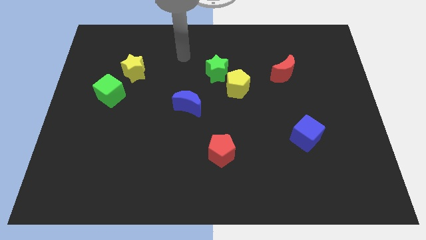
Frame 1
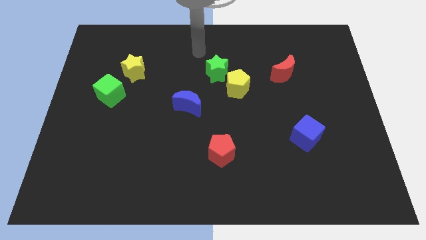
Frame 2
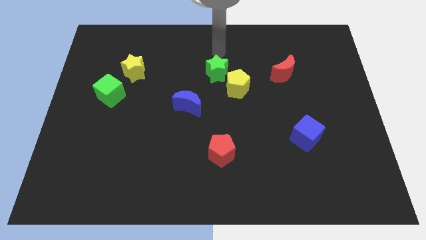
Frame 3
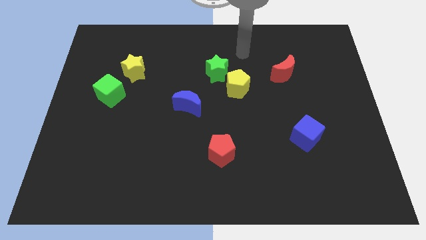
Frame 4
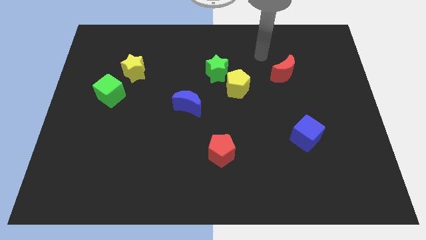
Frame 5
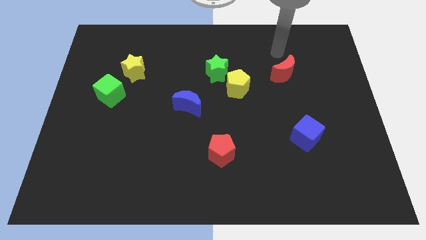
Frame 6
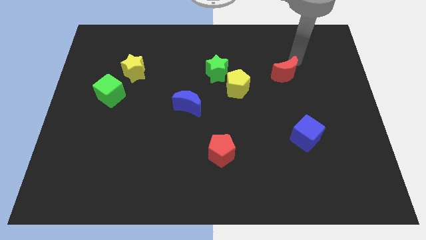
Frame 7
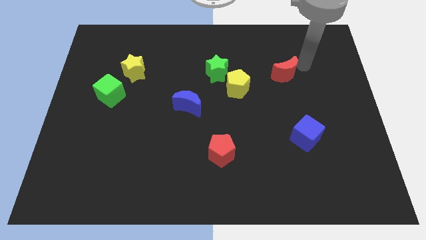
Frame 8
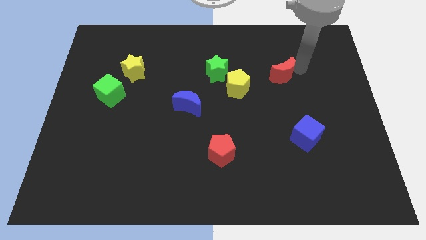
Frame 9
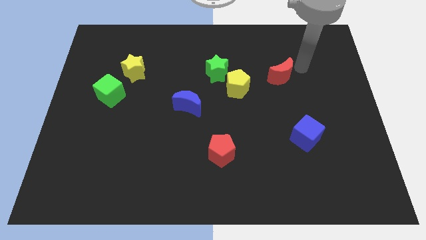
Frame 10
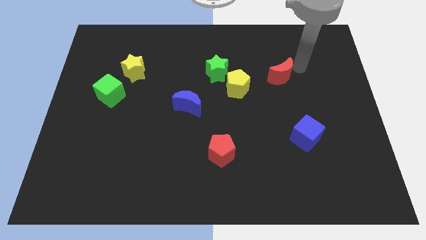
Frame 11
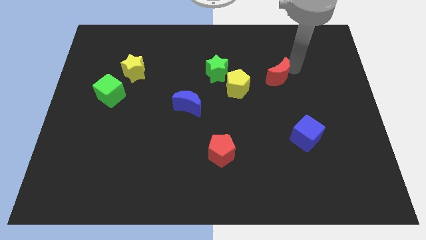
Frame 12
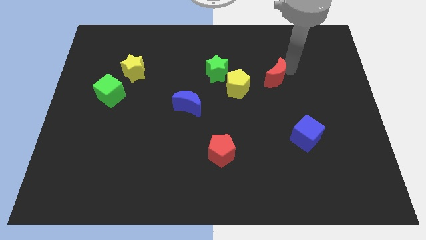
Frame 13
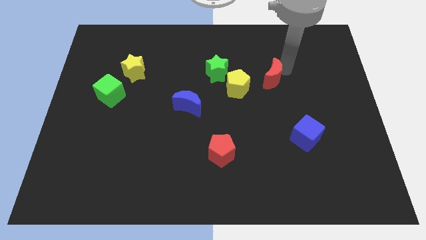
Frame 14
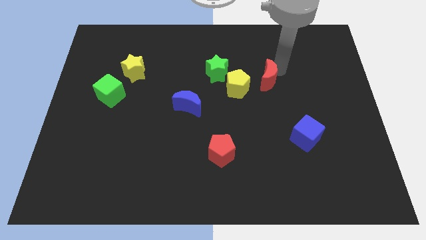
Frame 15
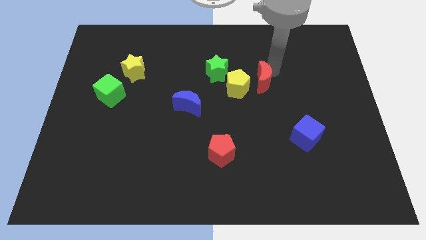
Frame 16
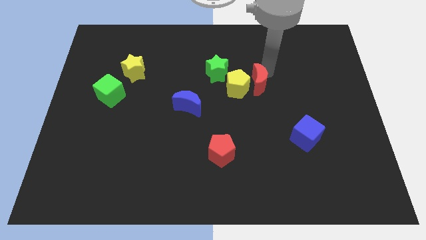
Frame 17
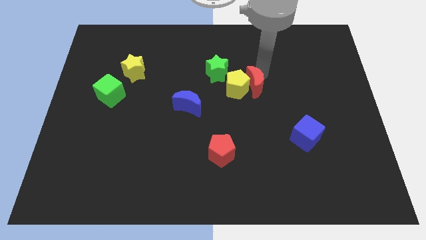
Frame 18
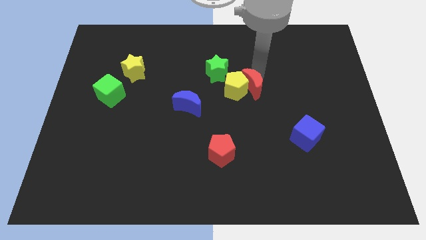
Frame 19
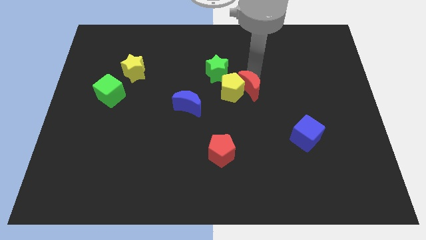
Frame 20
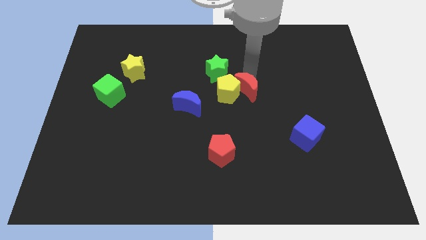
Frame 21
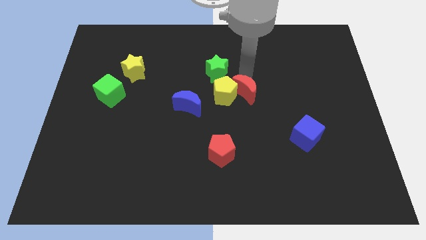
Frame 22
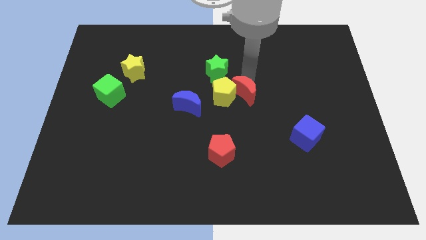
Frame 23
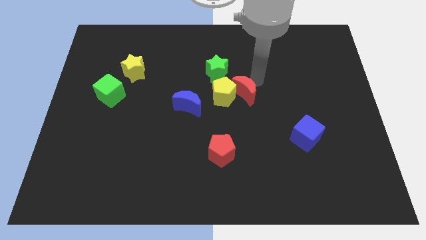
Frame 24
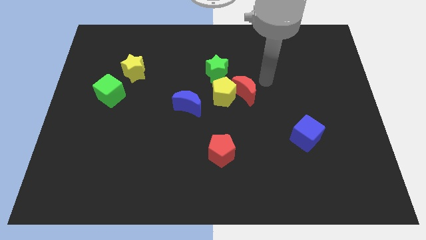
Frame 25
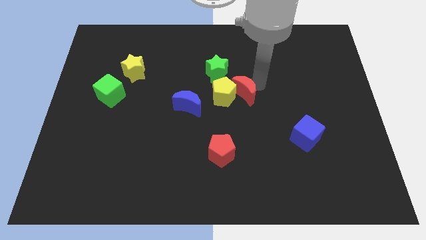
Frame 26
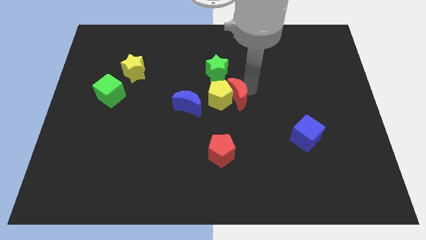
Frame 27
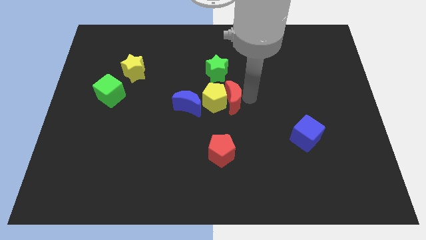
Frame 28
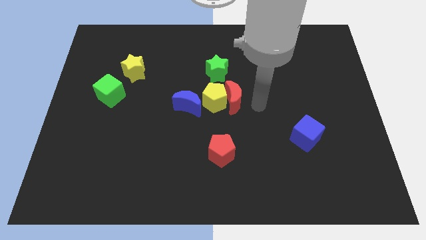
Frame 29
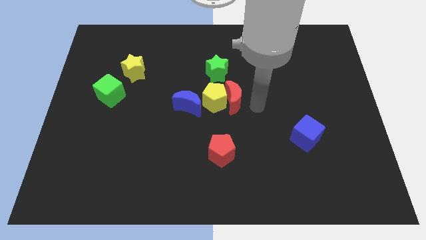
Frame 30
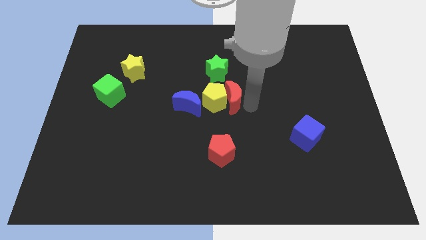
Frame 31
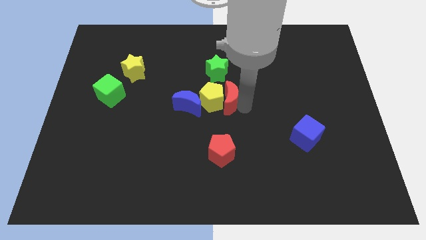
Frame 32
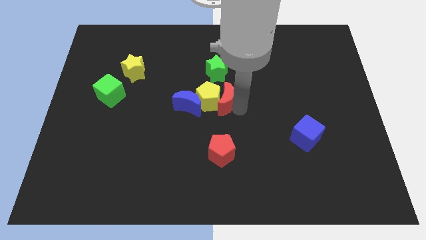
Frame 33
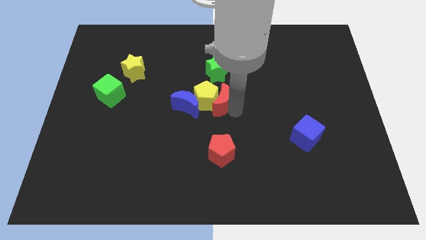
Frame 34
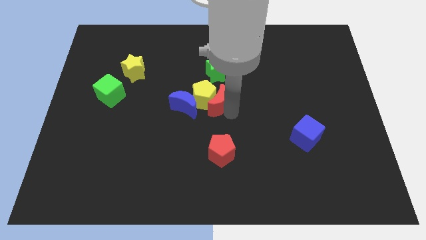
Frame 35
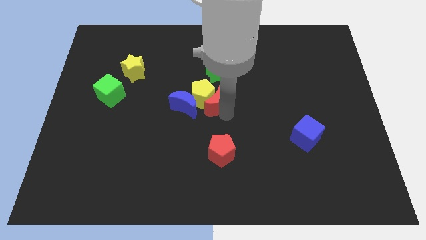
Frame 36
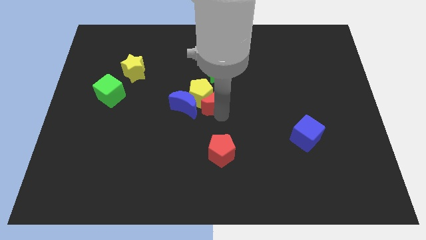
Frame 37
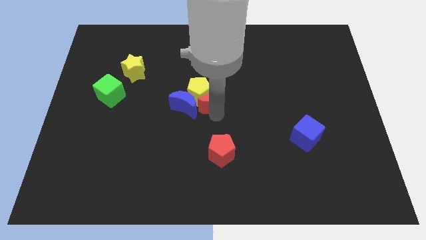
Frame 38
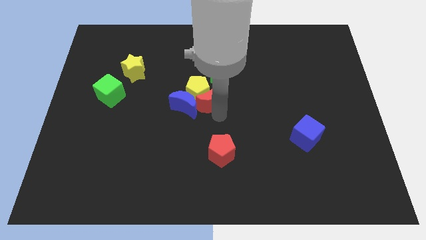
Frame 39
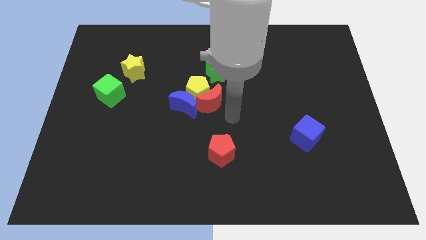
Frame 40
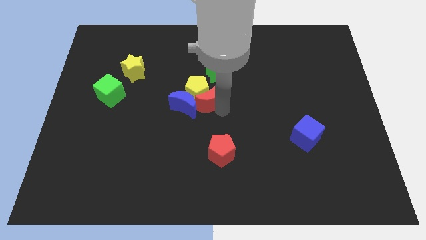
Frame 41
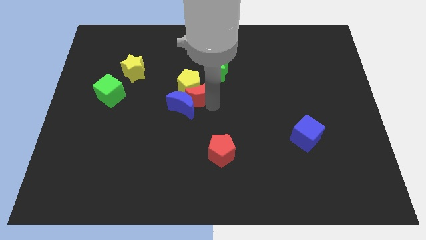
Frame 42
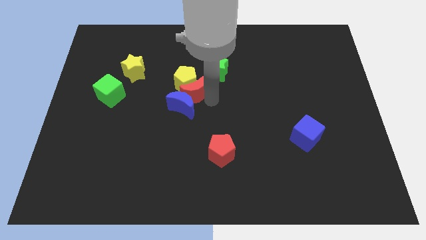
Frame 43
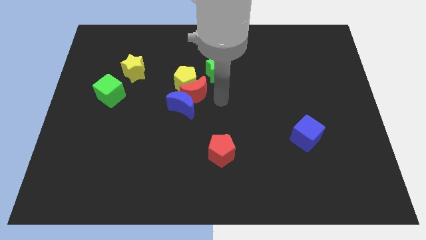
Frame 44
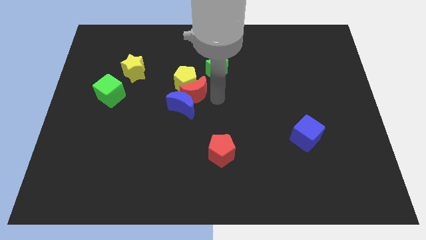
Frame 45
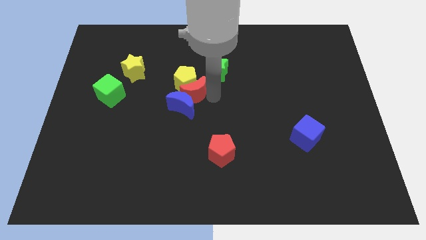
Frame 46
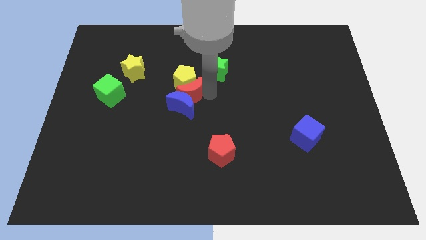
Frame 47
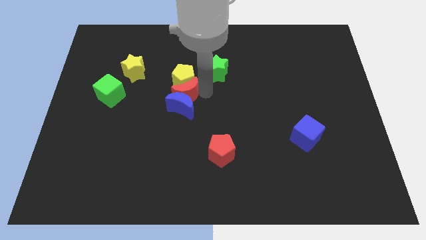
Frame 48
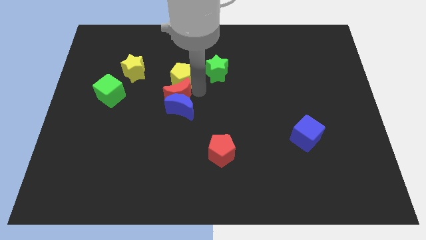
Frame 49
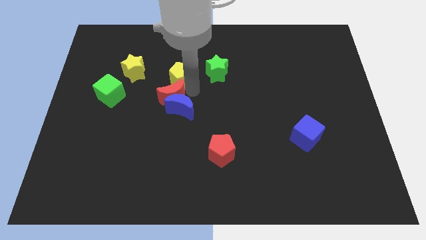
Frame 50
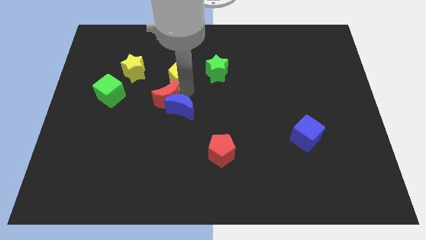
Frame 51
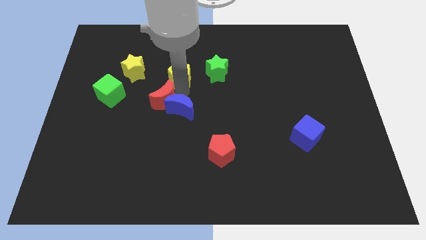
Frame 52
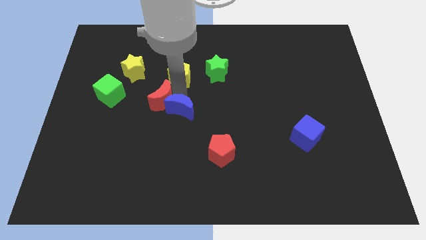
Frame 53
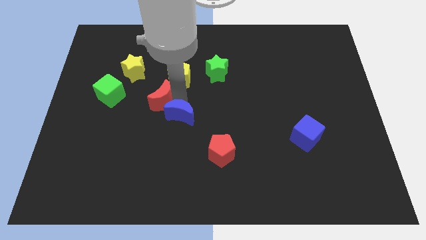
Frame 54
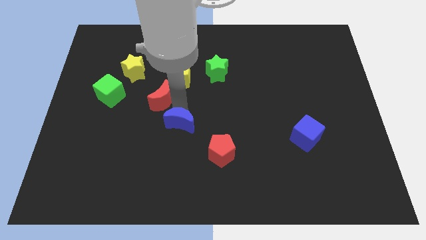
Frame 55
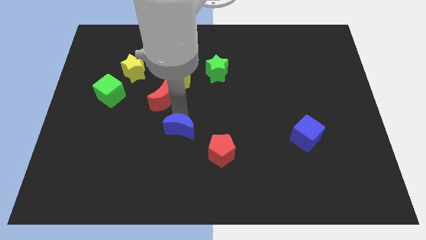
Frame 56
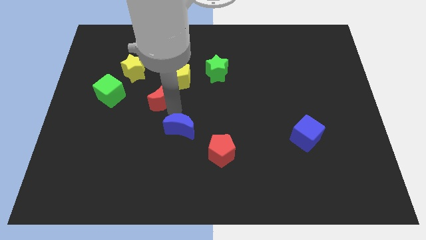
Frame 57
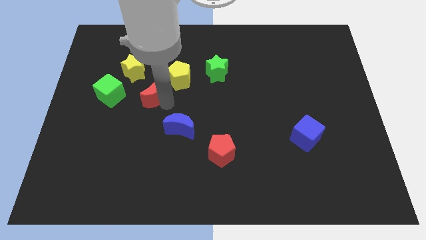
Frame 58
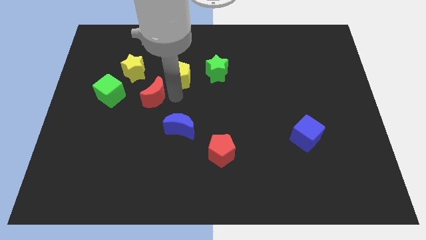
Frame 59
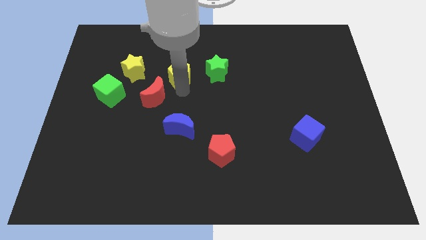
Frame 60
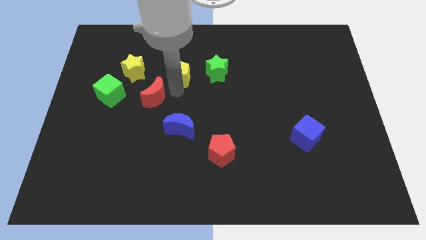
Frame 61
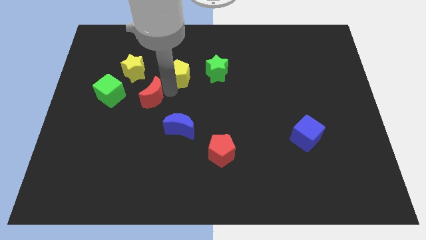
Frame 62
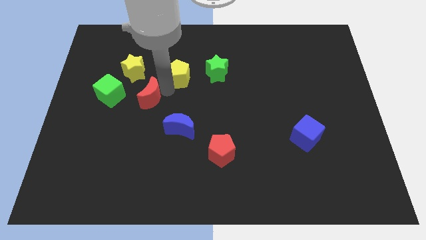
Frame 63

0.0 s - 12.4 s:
move the red moon below the yellow star
